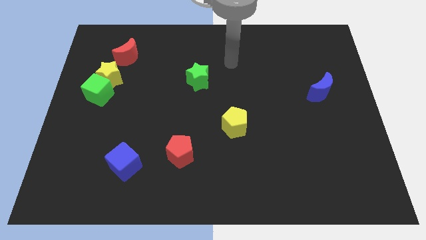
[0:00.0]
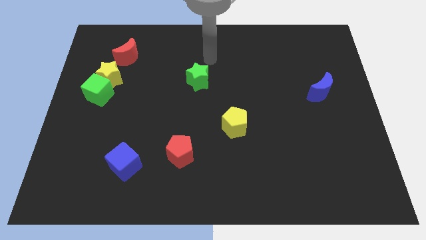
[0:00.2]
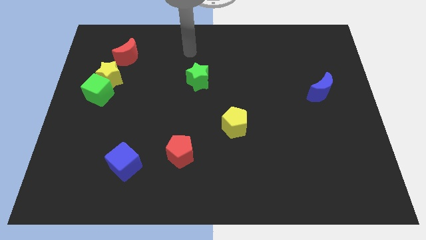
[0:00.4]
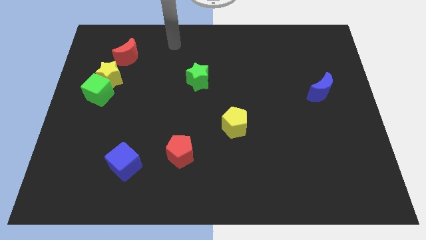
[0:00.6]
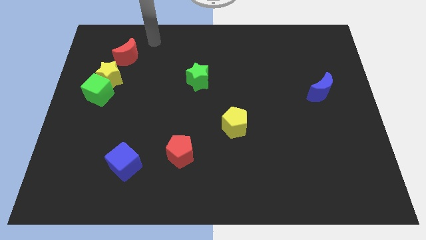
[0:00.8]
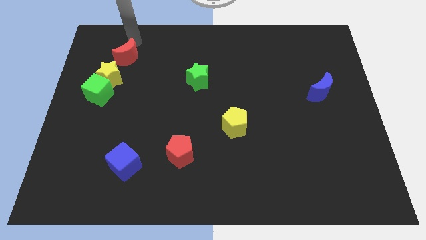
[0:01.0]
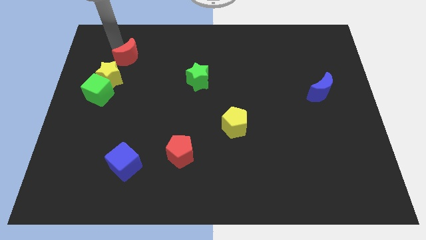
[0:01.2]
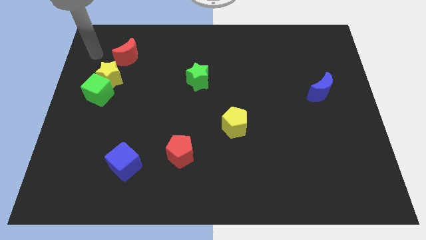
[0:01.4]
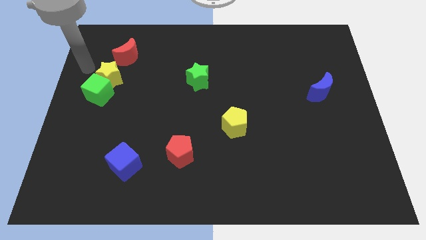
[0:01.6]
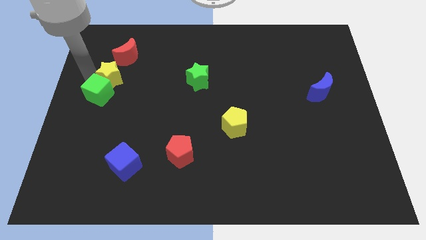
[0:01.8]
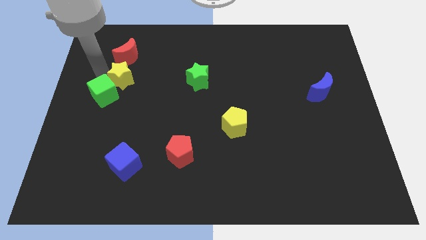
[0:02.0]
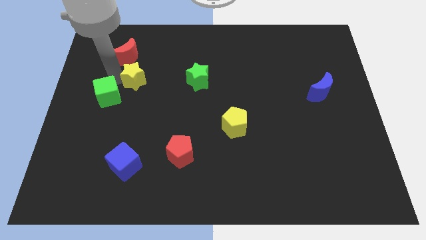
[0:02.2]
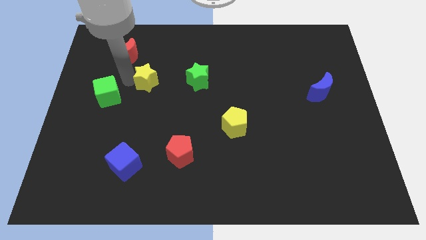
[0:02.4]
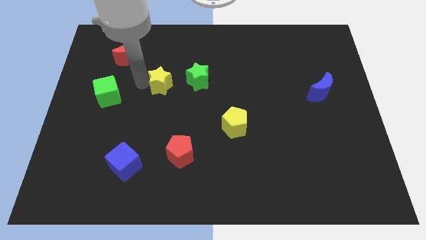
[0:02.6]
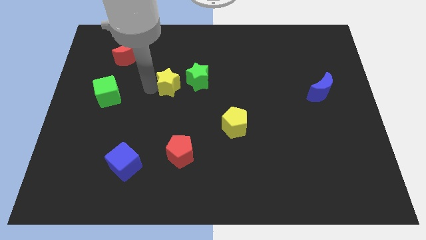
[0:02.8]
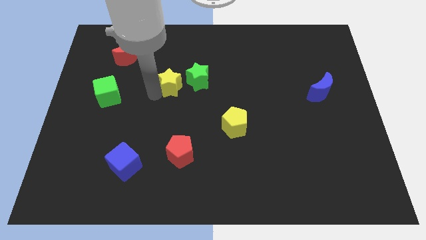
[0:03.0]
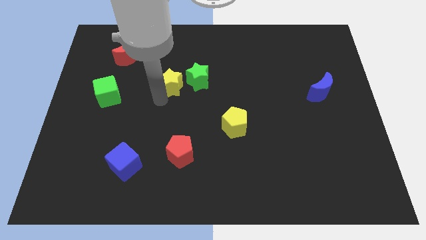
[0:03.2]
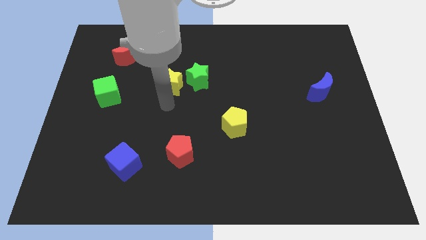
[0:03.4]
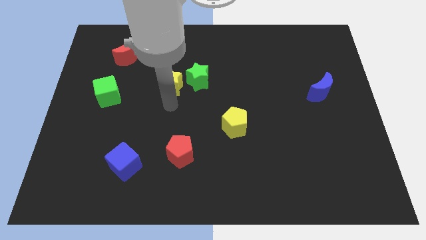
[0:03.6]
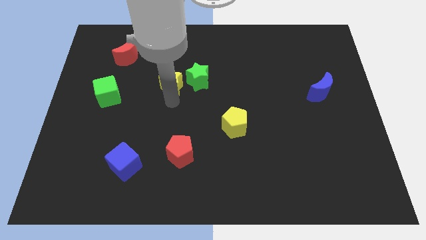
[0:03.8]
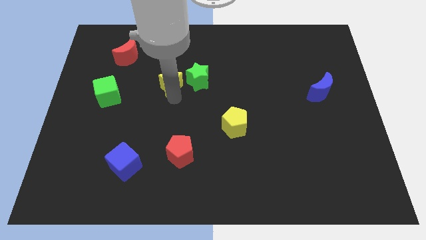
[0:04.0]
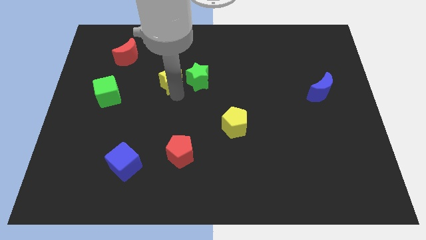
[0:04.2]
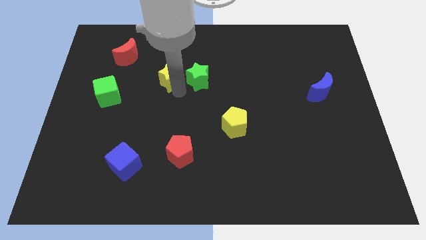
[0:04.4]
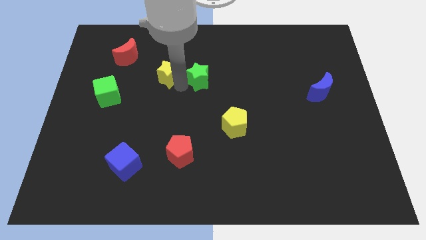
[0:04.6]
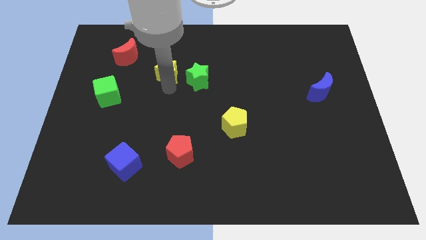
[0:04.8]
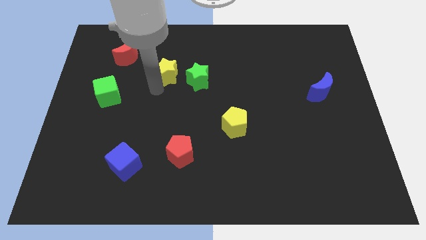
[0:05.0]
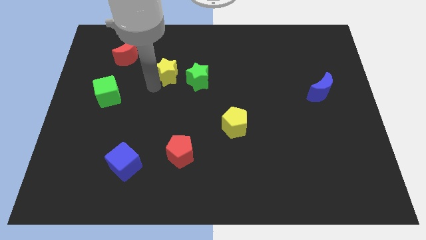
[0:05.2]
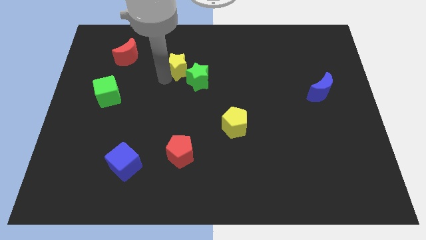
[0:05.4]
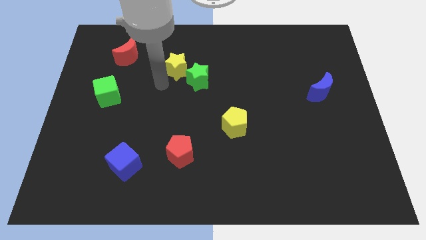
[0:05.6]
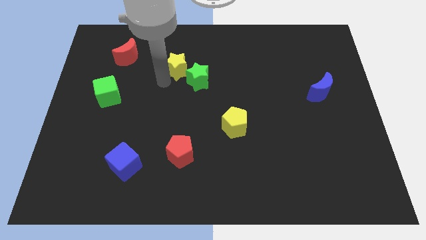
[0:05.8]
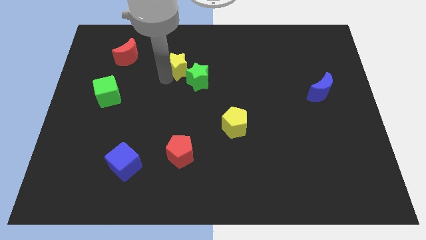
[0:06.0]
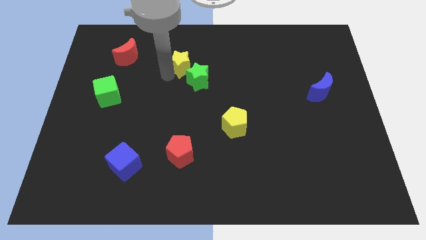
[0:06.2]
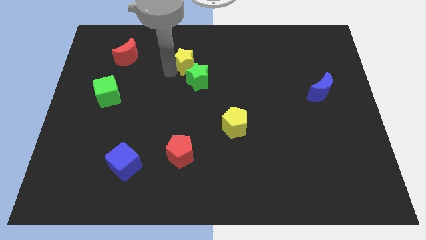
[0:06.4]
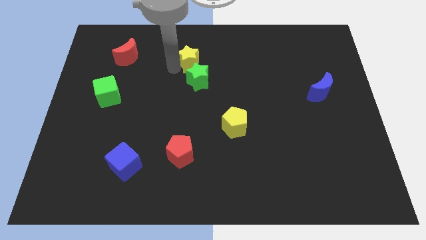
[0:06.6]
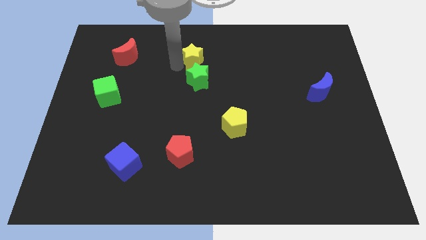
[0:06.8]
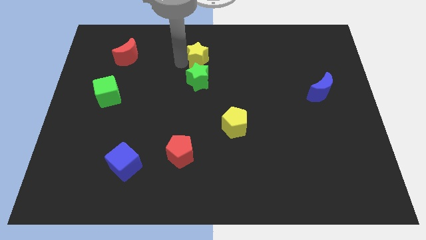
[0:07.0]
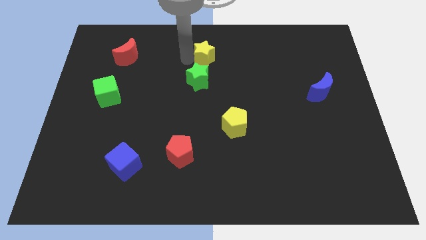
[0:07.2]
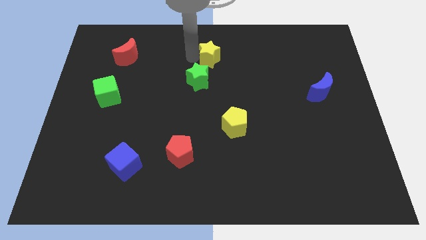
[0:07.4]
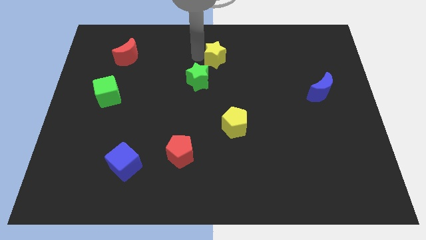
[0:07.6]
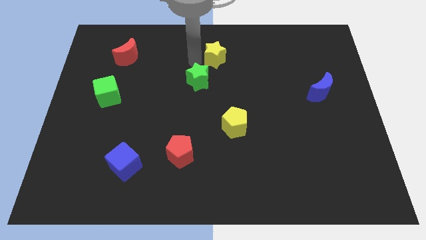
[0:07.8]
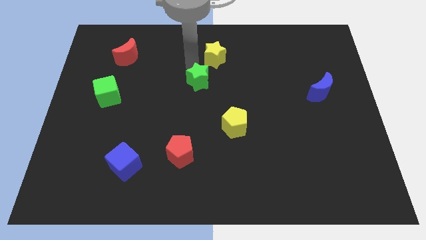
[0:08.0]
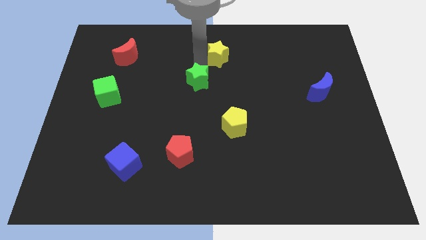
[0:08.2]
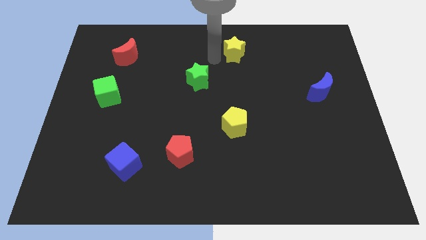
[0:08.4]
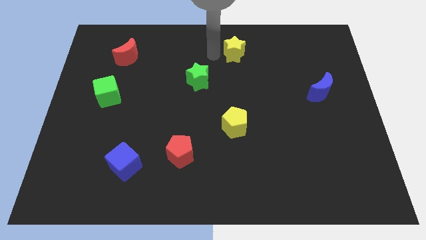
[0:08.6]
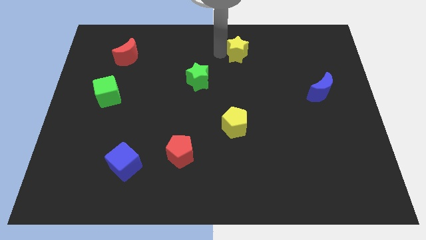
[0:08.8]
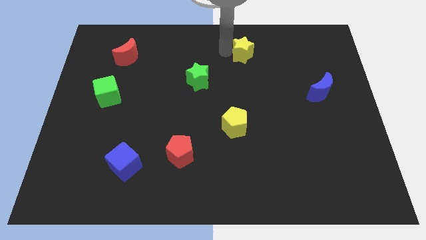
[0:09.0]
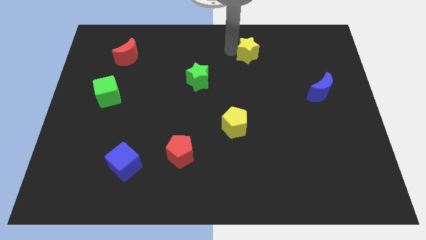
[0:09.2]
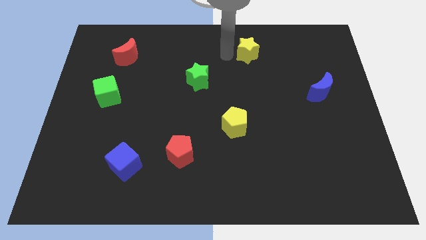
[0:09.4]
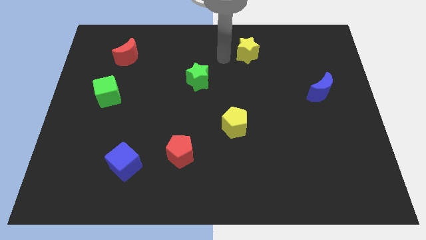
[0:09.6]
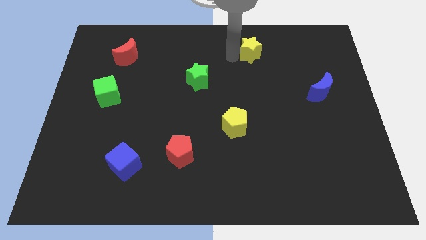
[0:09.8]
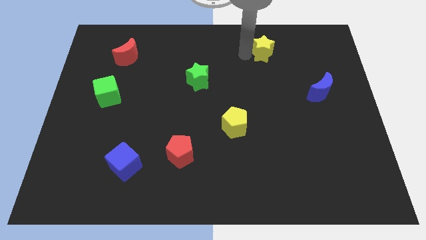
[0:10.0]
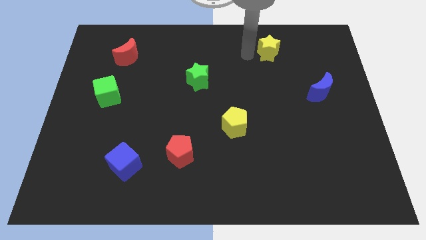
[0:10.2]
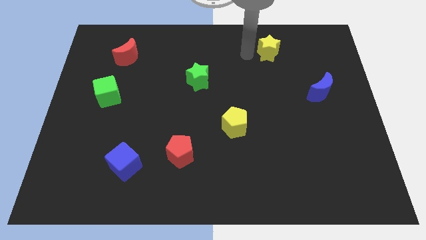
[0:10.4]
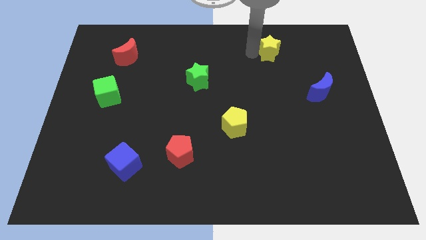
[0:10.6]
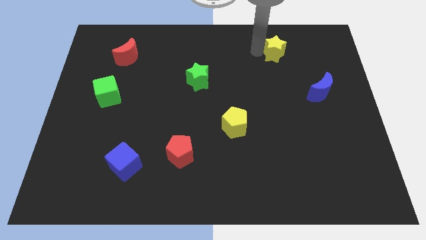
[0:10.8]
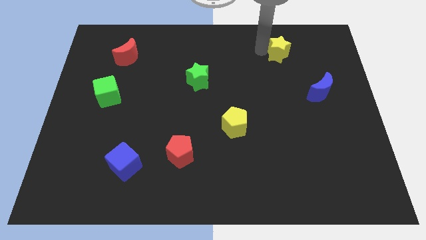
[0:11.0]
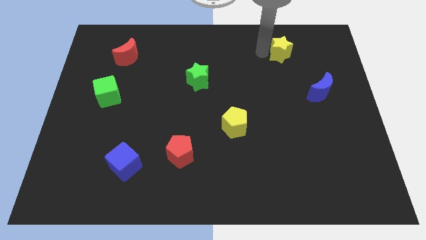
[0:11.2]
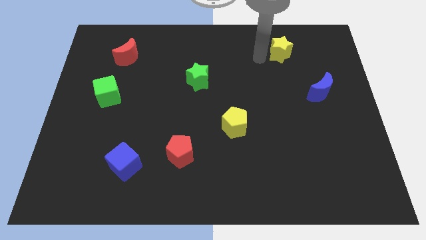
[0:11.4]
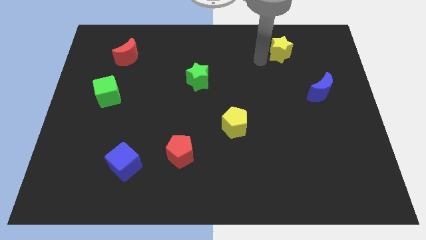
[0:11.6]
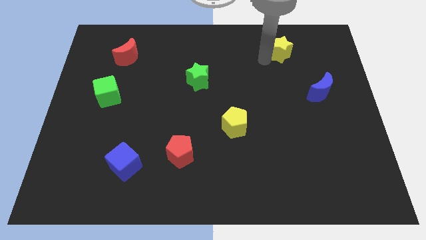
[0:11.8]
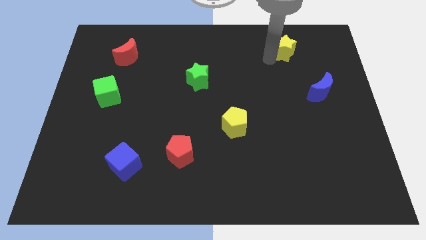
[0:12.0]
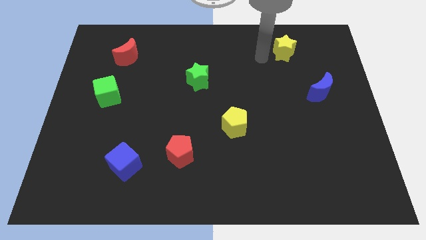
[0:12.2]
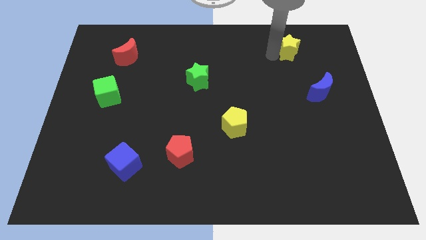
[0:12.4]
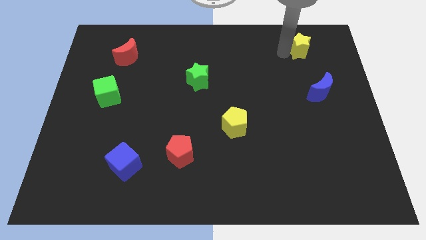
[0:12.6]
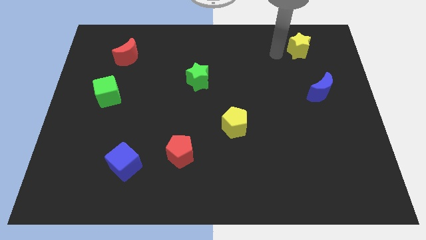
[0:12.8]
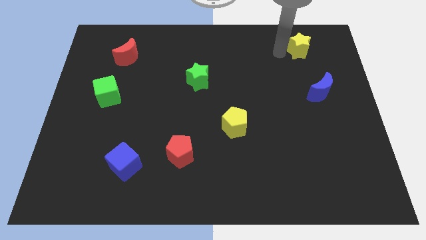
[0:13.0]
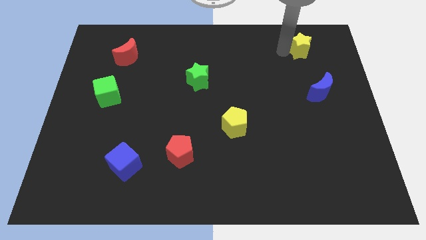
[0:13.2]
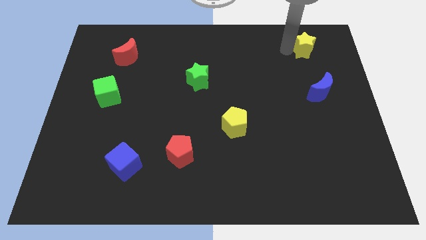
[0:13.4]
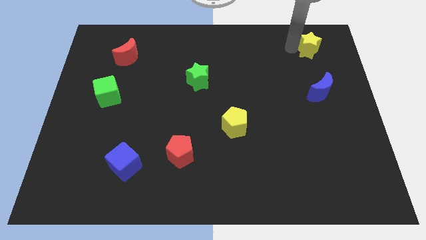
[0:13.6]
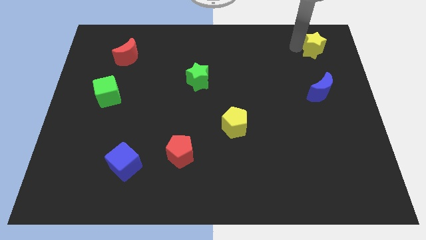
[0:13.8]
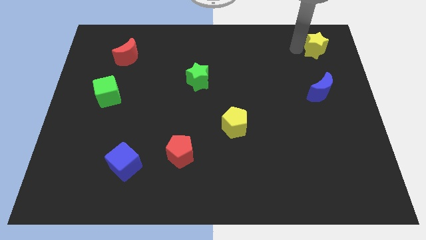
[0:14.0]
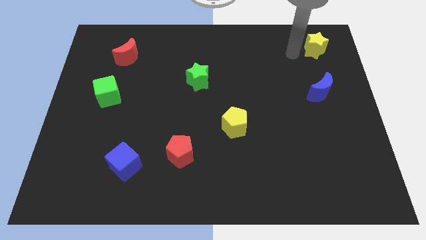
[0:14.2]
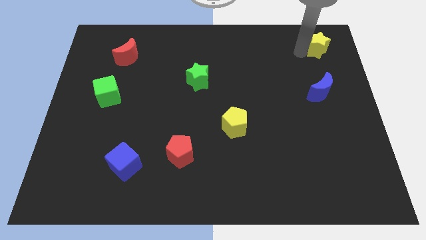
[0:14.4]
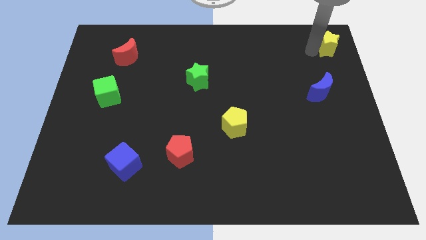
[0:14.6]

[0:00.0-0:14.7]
slide the yellow star to the top right
